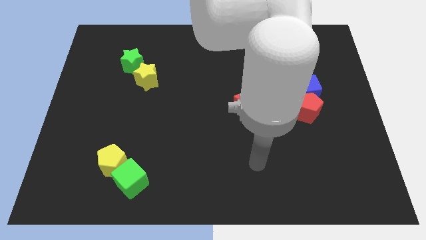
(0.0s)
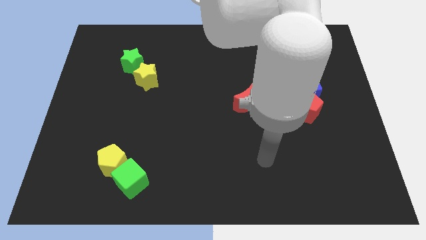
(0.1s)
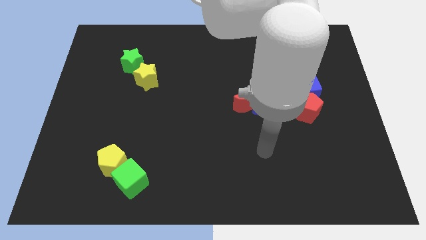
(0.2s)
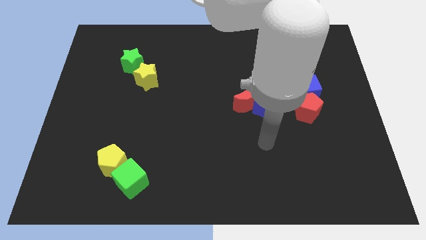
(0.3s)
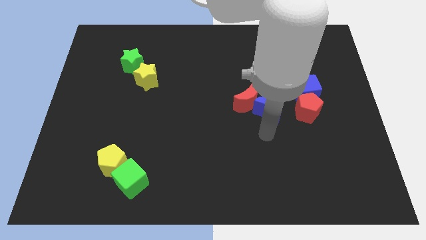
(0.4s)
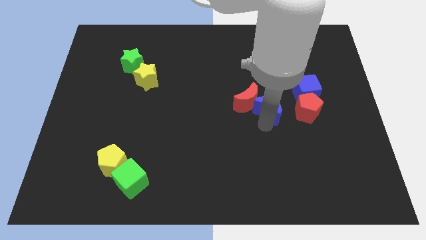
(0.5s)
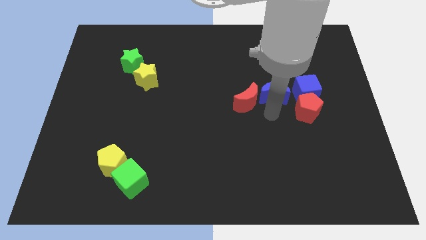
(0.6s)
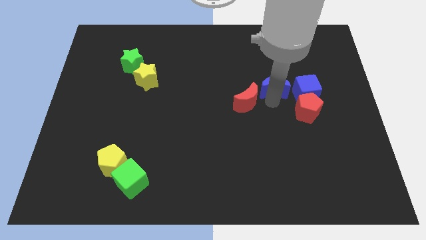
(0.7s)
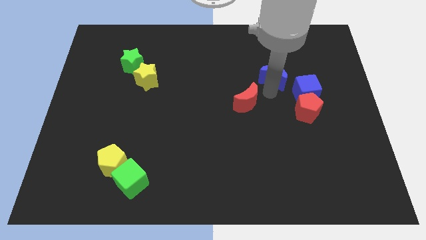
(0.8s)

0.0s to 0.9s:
move the red moon away from the blue moon

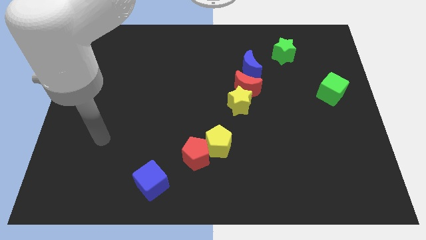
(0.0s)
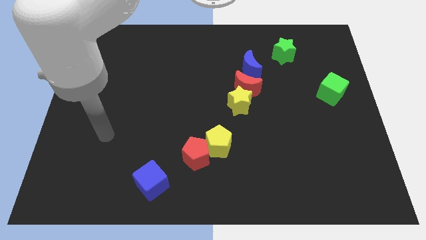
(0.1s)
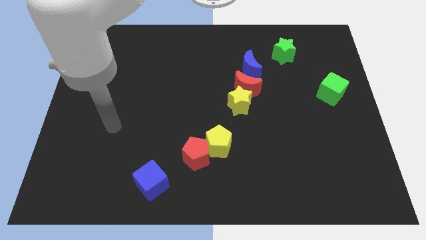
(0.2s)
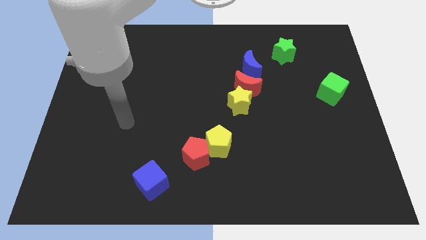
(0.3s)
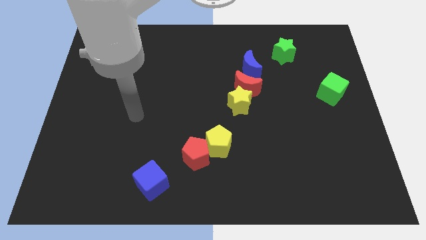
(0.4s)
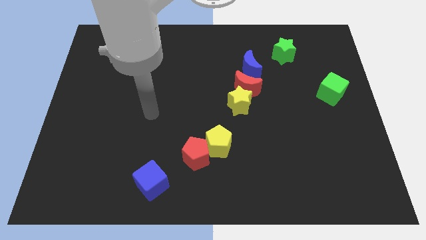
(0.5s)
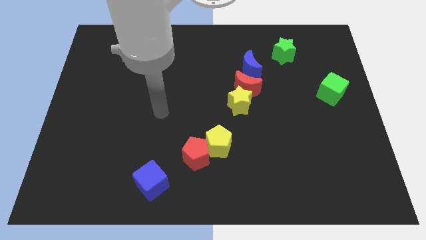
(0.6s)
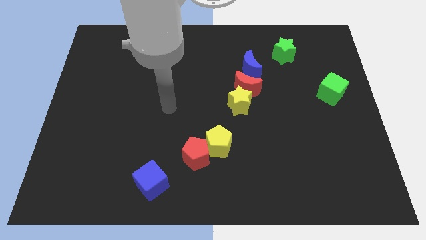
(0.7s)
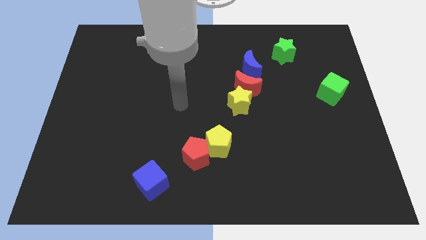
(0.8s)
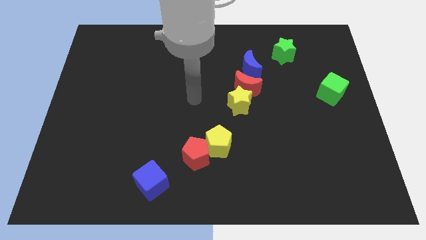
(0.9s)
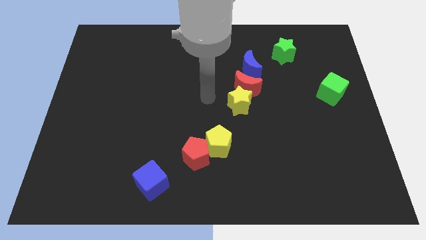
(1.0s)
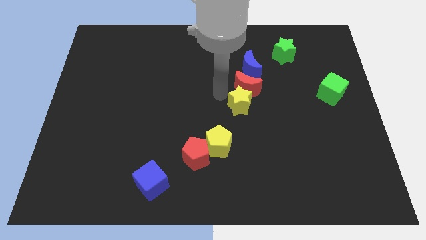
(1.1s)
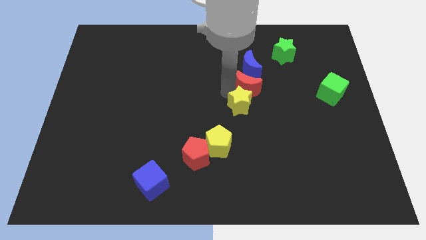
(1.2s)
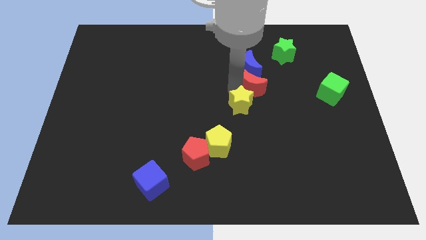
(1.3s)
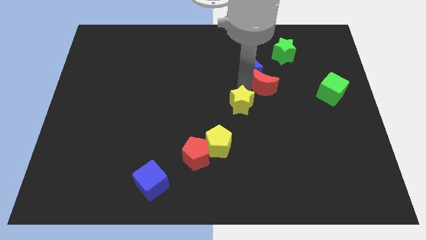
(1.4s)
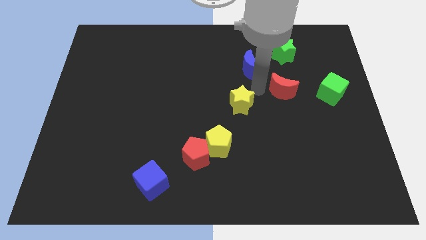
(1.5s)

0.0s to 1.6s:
move the yellow star away from the red moon

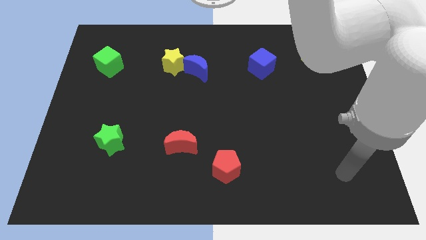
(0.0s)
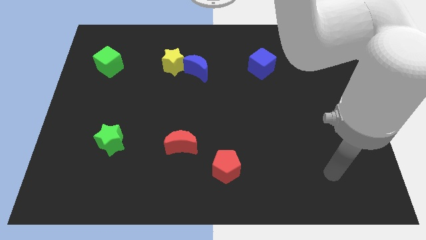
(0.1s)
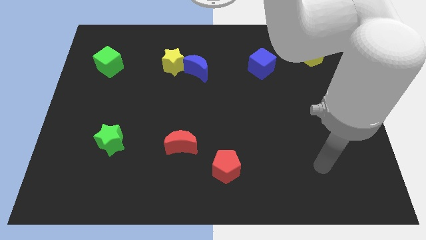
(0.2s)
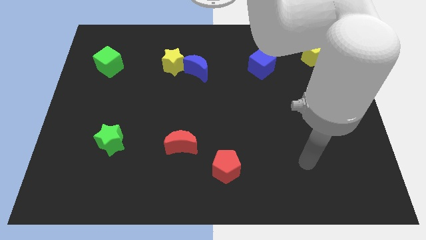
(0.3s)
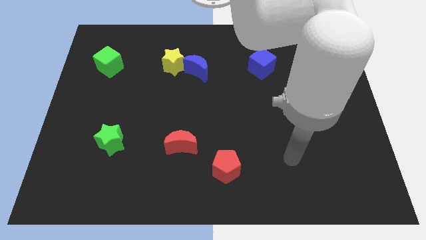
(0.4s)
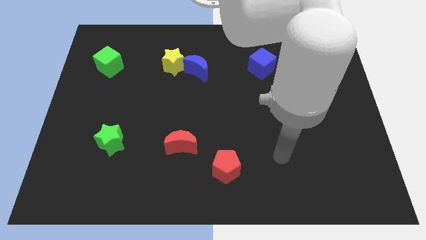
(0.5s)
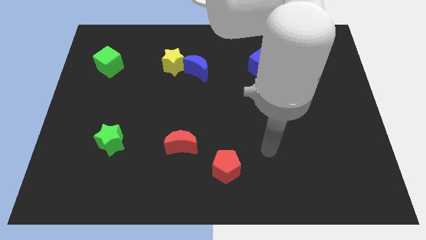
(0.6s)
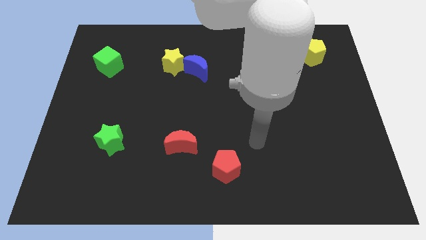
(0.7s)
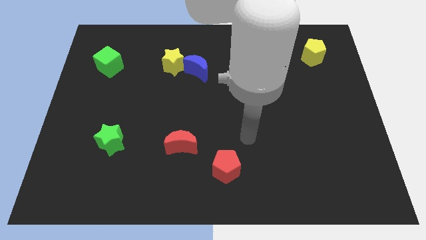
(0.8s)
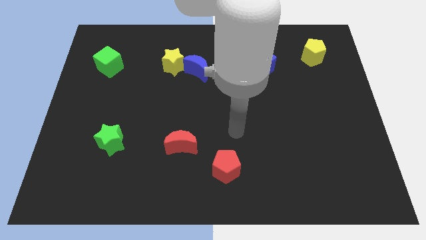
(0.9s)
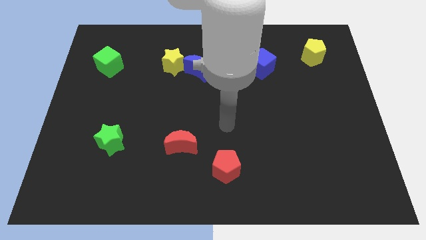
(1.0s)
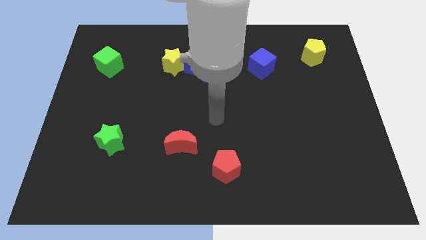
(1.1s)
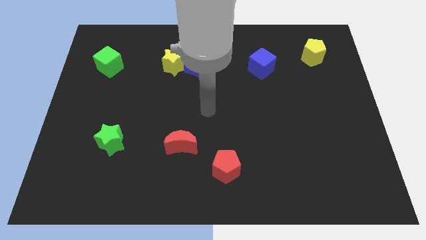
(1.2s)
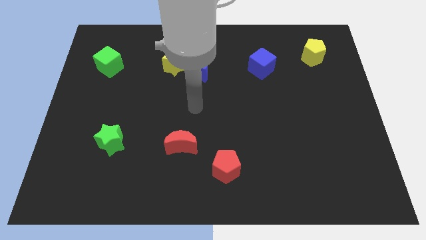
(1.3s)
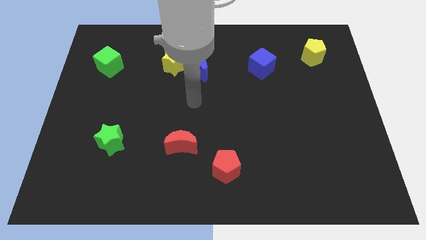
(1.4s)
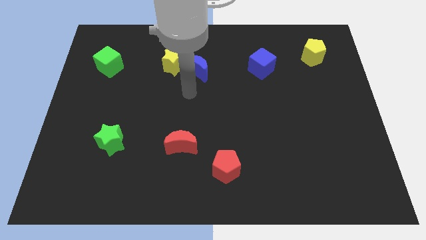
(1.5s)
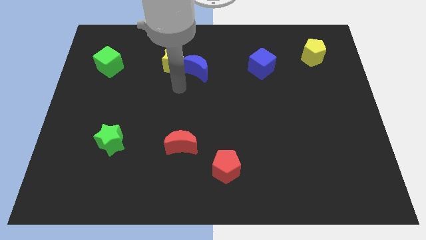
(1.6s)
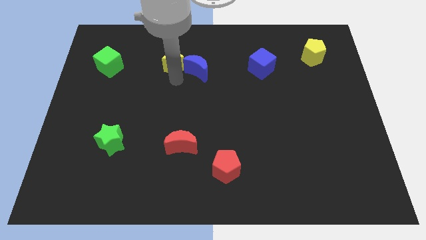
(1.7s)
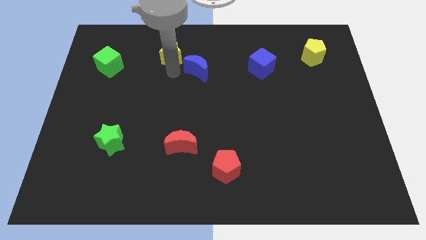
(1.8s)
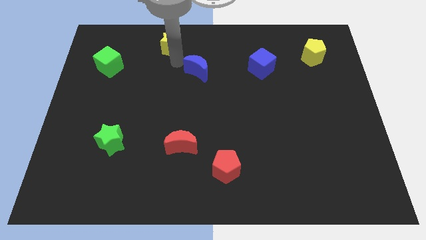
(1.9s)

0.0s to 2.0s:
move the blue moon away from the yellow star

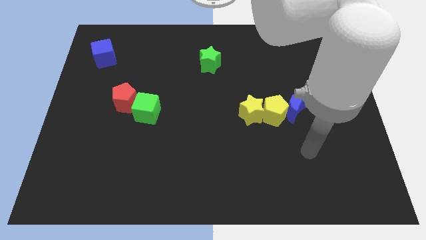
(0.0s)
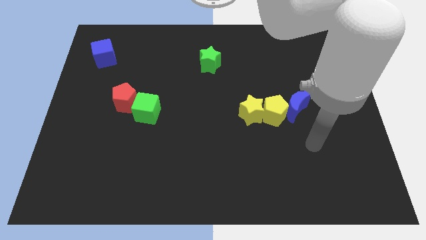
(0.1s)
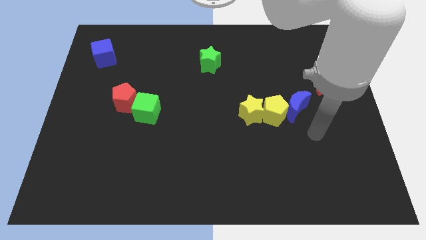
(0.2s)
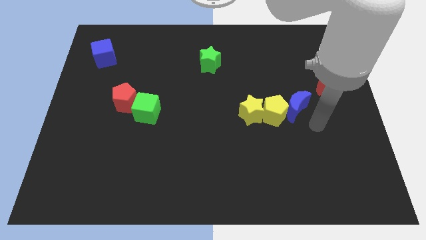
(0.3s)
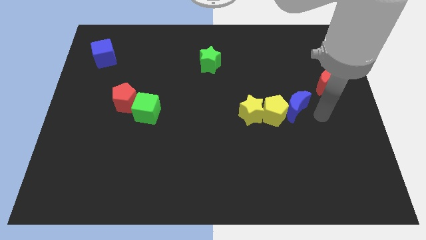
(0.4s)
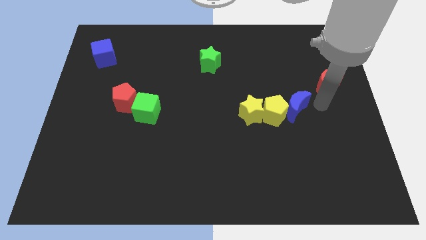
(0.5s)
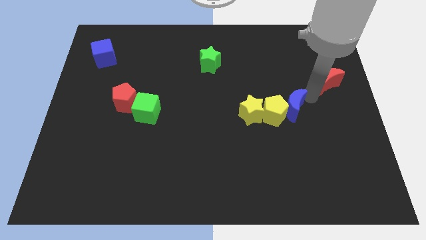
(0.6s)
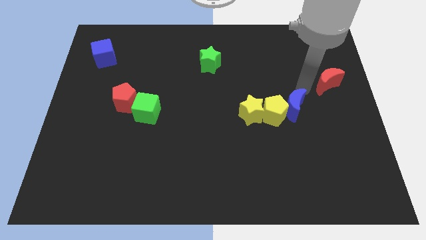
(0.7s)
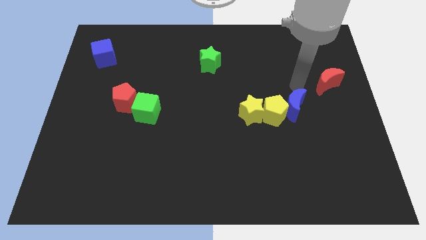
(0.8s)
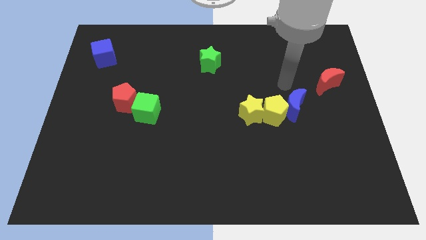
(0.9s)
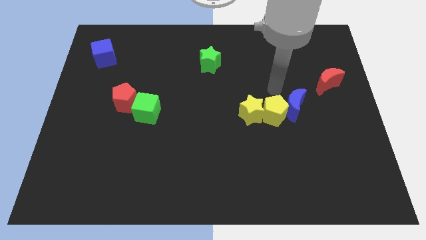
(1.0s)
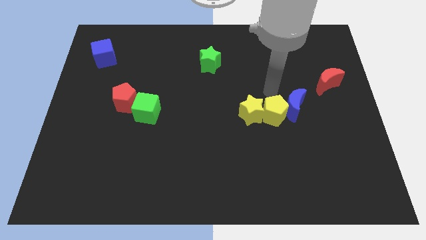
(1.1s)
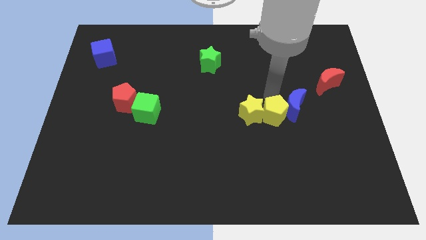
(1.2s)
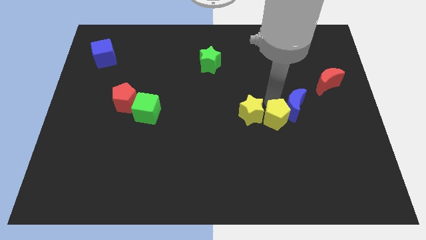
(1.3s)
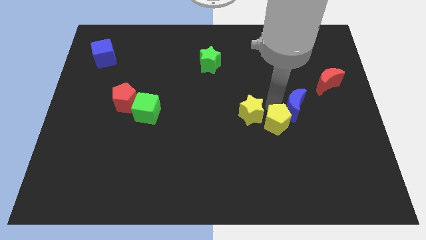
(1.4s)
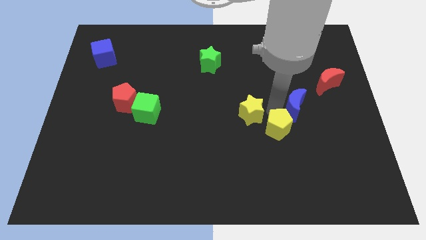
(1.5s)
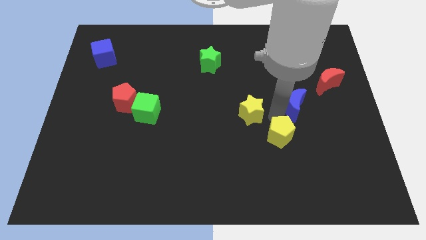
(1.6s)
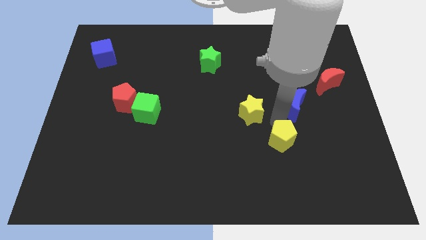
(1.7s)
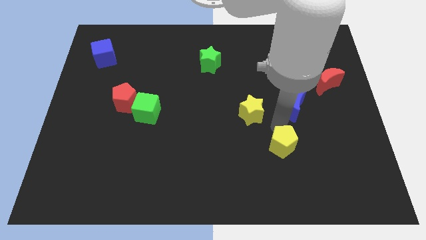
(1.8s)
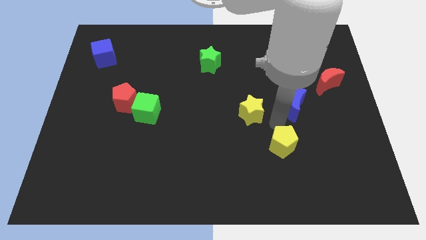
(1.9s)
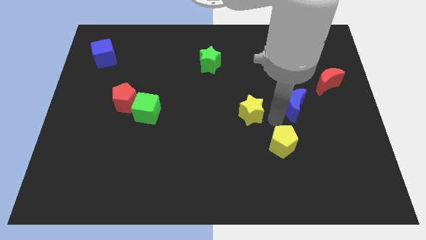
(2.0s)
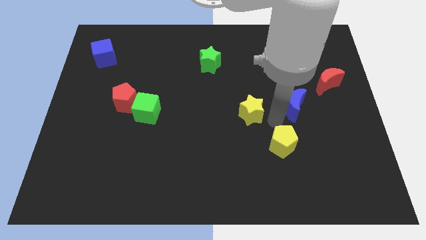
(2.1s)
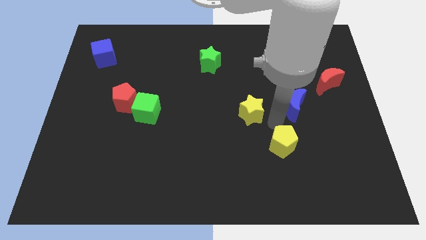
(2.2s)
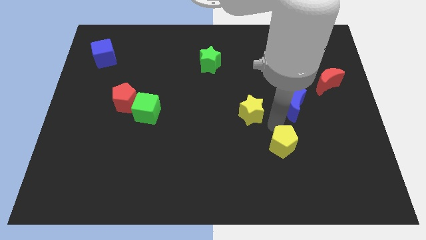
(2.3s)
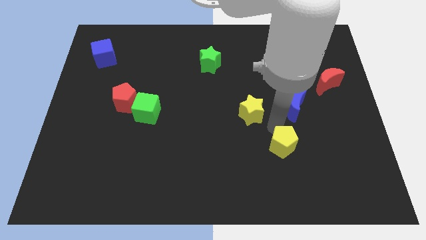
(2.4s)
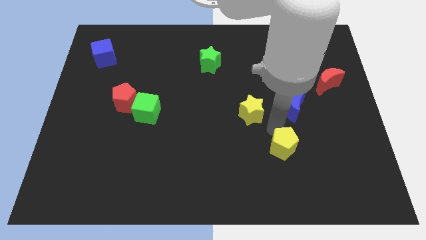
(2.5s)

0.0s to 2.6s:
separate the yellow pentagon from the yellow star and blue moon

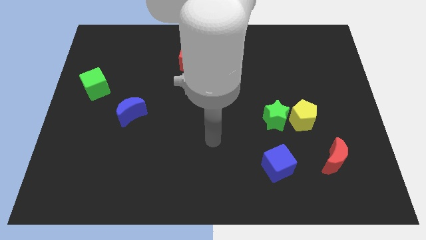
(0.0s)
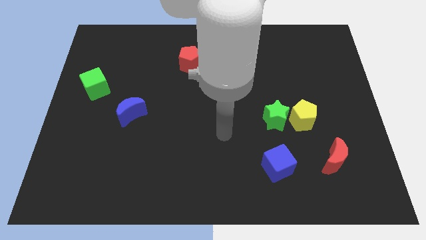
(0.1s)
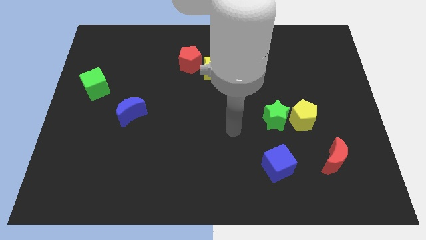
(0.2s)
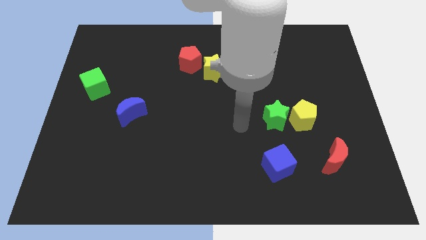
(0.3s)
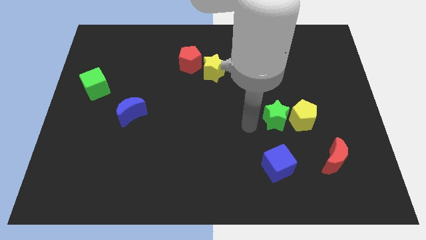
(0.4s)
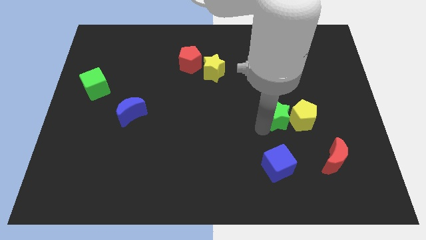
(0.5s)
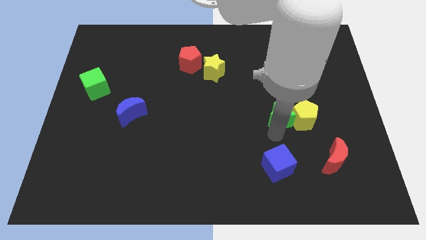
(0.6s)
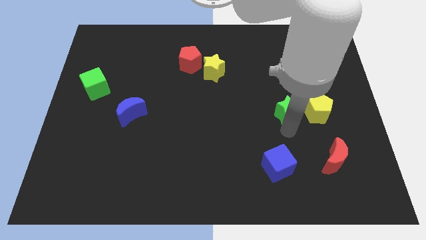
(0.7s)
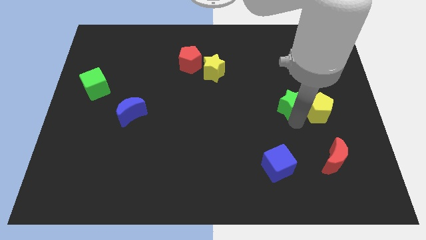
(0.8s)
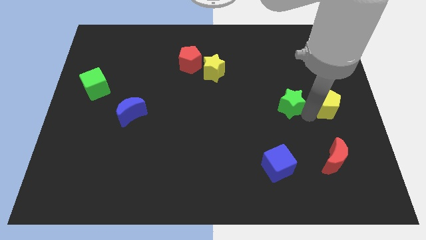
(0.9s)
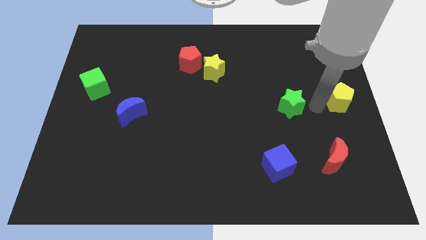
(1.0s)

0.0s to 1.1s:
pull the green star apart from the yellow pentagon

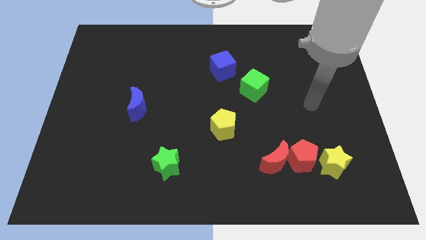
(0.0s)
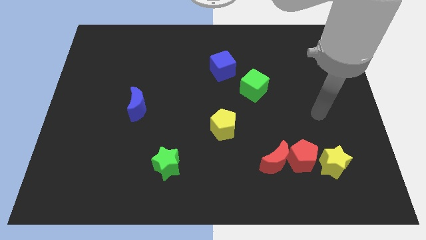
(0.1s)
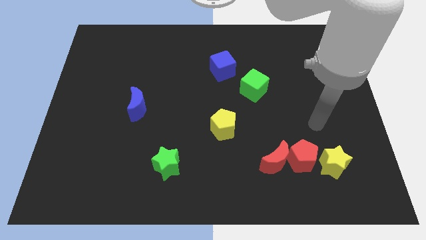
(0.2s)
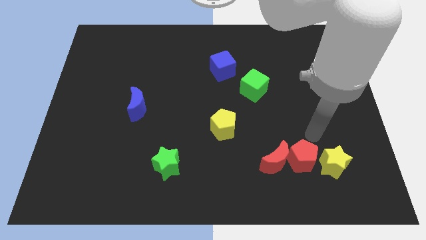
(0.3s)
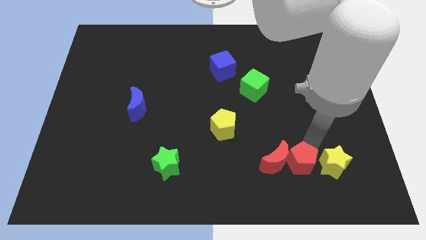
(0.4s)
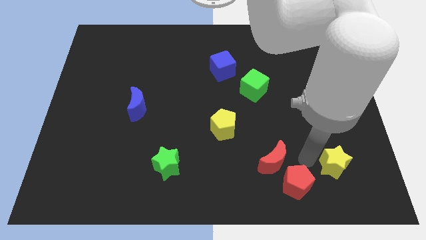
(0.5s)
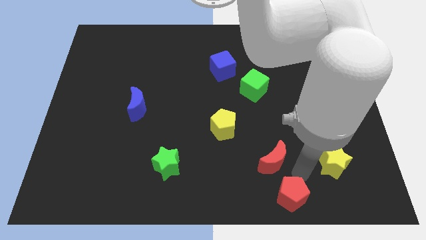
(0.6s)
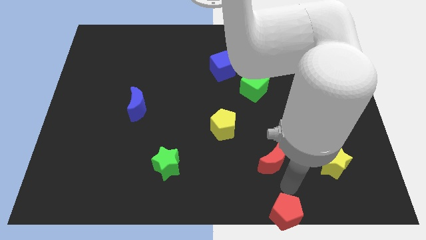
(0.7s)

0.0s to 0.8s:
move the red moon away from the red pentagon

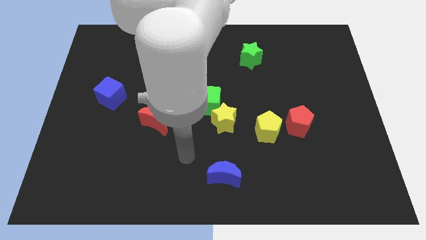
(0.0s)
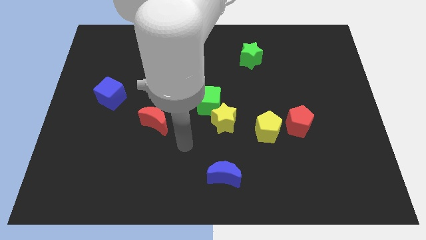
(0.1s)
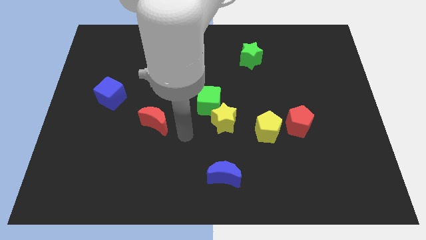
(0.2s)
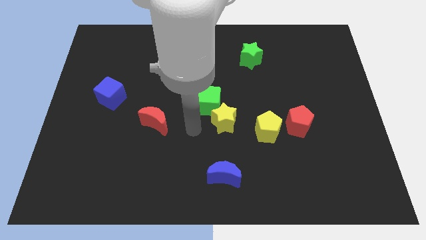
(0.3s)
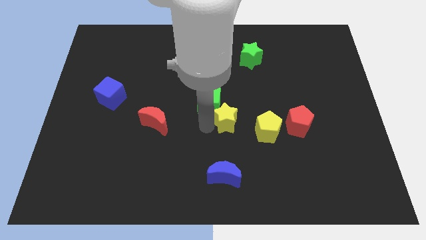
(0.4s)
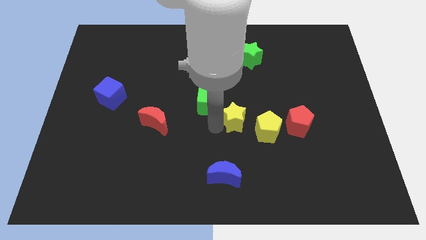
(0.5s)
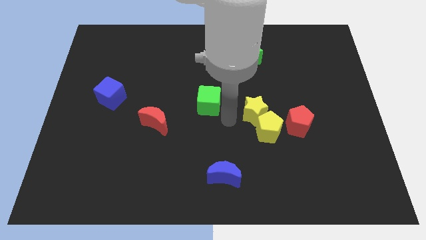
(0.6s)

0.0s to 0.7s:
separate the green cube from the yellow star
